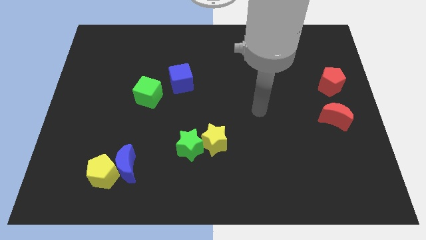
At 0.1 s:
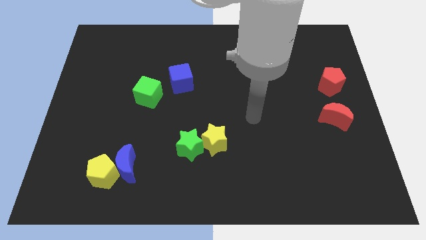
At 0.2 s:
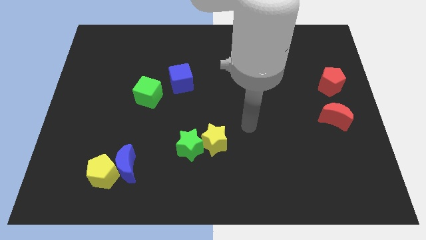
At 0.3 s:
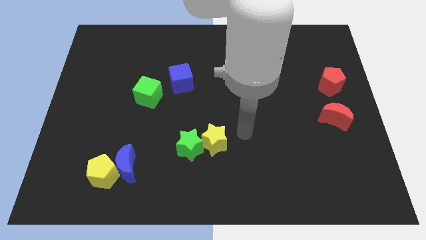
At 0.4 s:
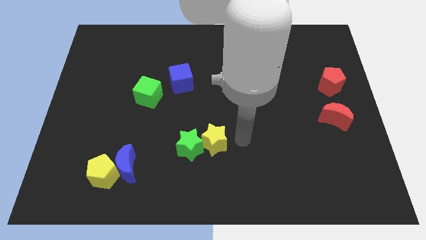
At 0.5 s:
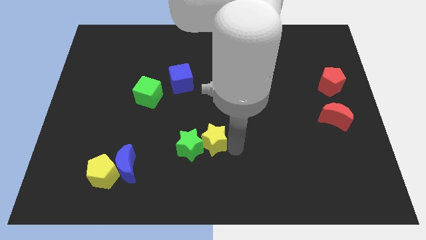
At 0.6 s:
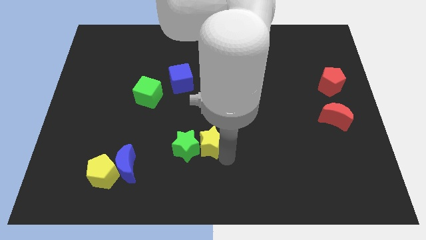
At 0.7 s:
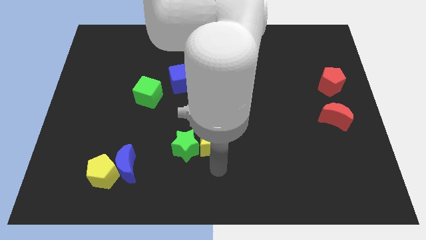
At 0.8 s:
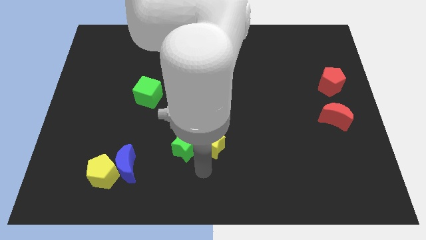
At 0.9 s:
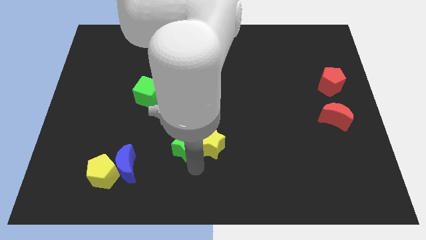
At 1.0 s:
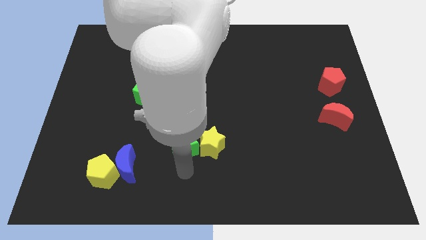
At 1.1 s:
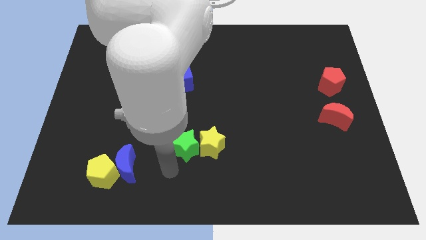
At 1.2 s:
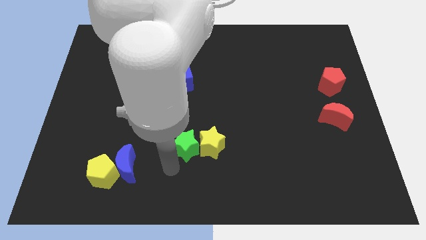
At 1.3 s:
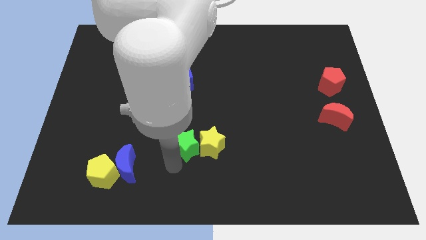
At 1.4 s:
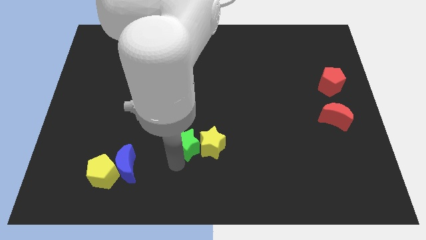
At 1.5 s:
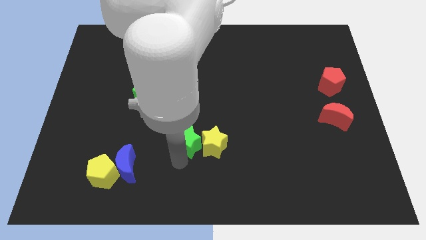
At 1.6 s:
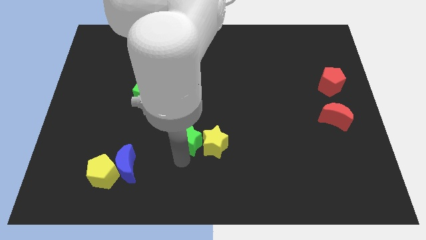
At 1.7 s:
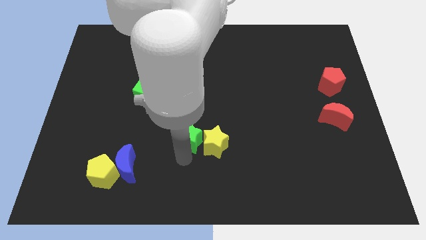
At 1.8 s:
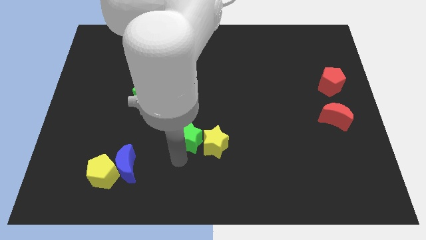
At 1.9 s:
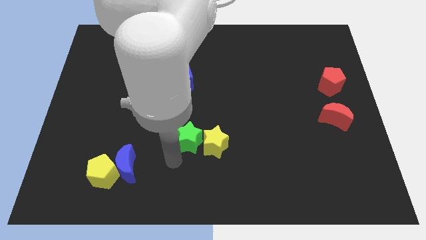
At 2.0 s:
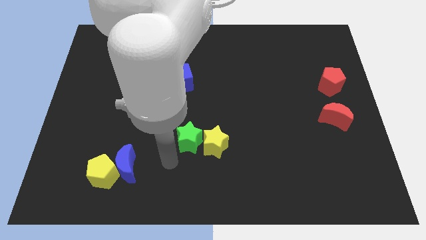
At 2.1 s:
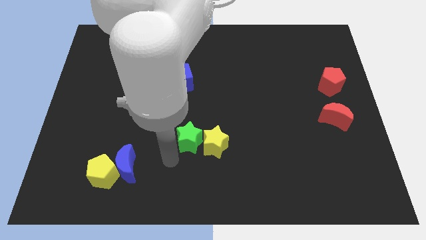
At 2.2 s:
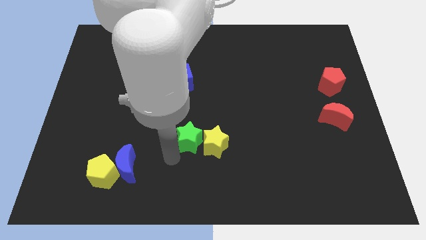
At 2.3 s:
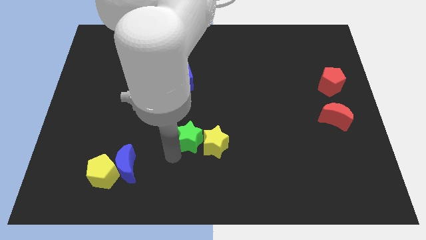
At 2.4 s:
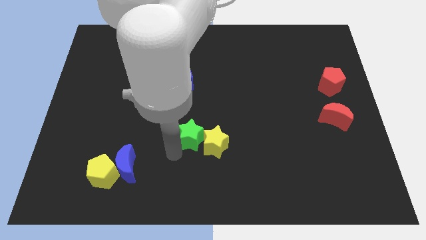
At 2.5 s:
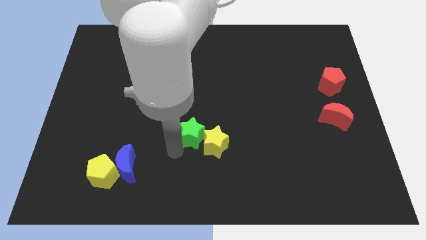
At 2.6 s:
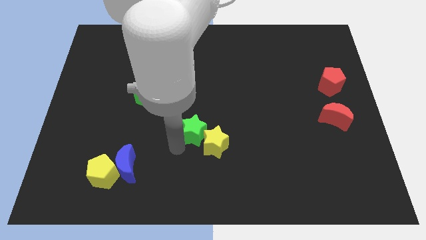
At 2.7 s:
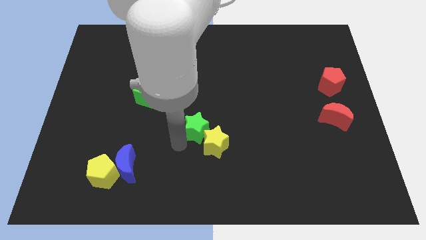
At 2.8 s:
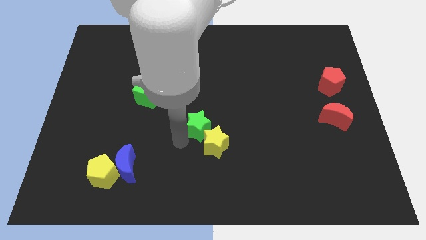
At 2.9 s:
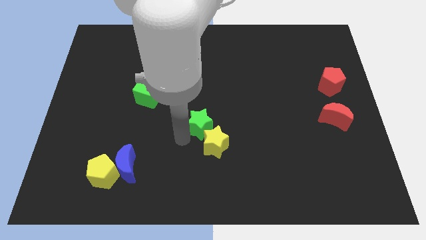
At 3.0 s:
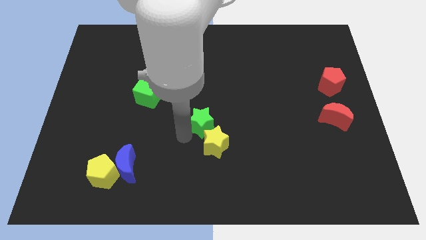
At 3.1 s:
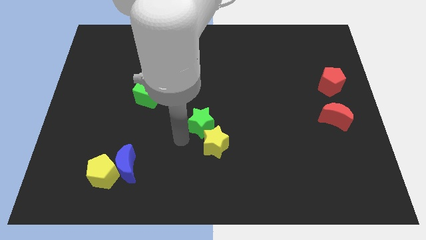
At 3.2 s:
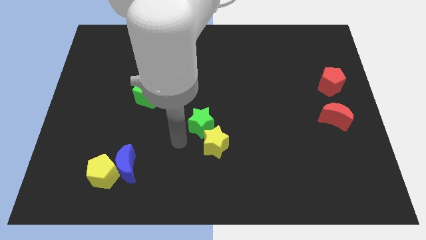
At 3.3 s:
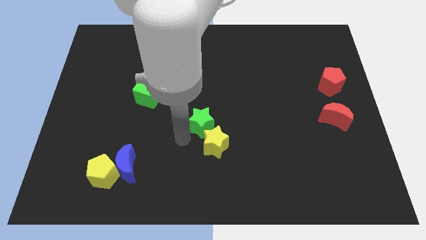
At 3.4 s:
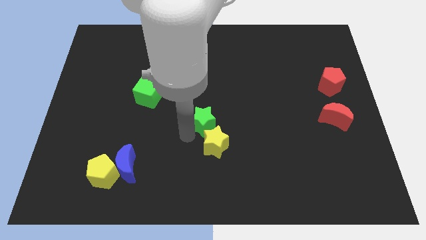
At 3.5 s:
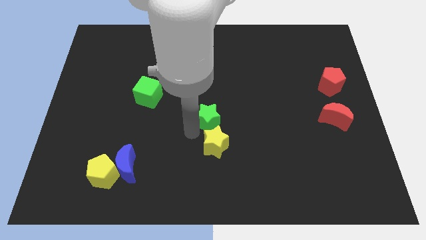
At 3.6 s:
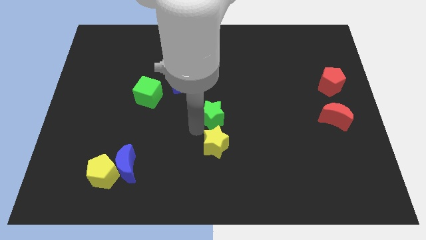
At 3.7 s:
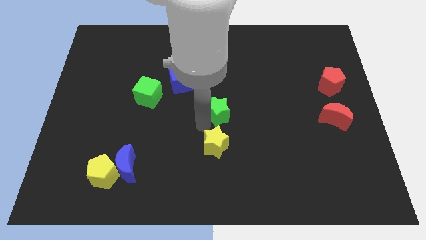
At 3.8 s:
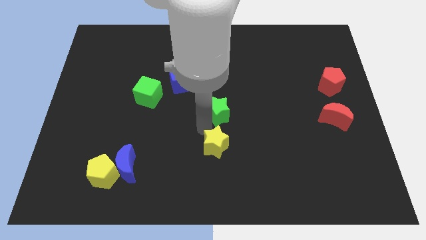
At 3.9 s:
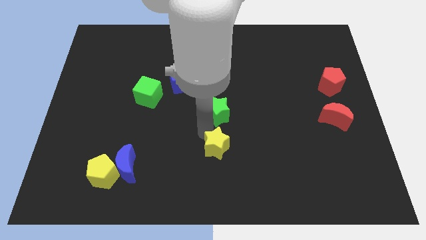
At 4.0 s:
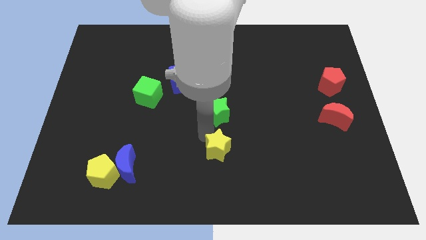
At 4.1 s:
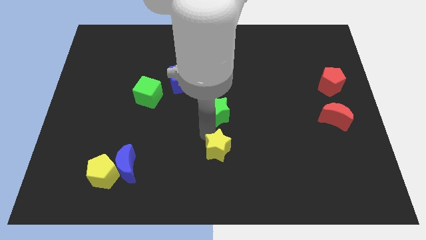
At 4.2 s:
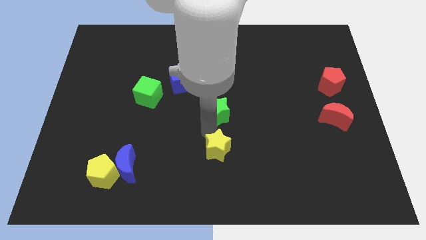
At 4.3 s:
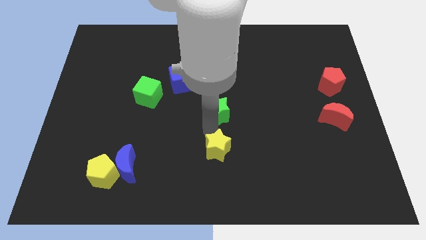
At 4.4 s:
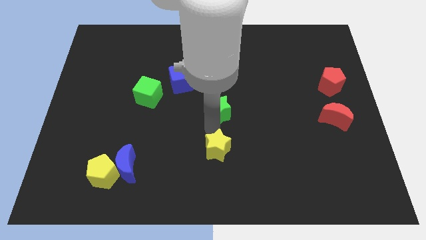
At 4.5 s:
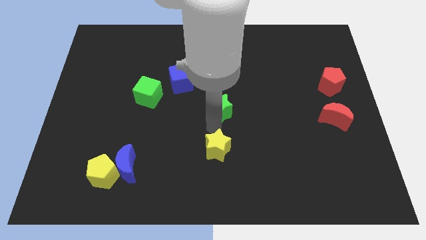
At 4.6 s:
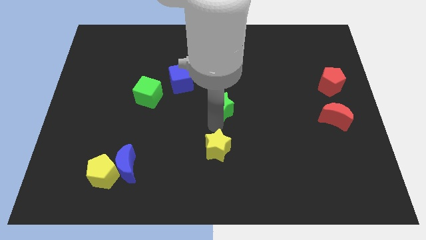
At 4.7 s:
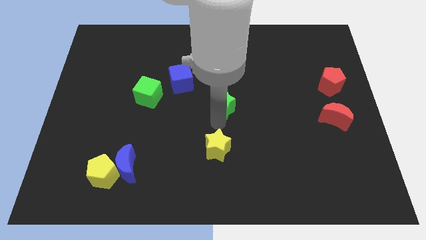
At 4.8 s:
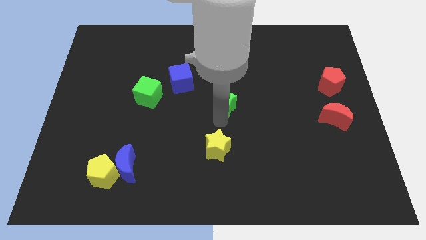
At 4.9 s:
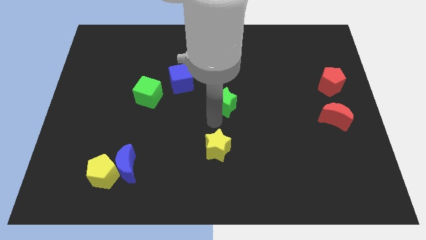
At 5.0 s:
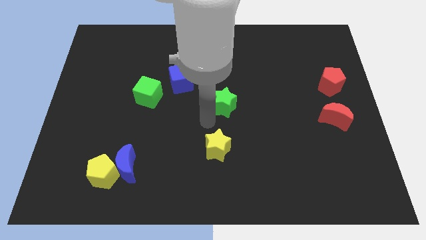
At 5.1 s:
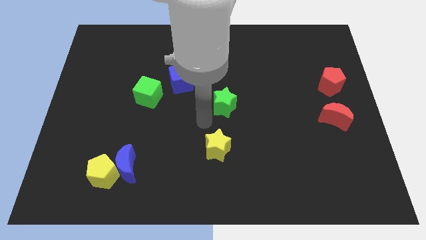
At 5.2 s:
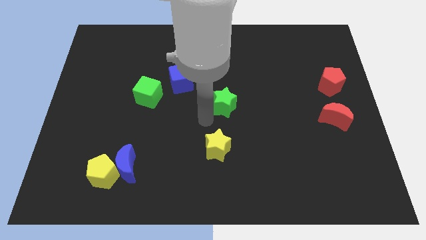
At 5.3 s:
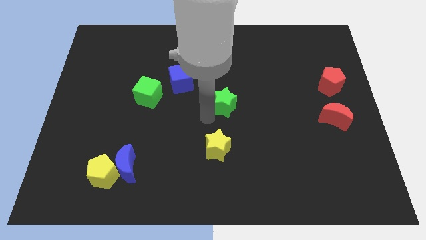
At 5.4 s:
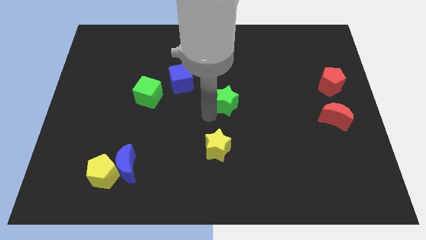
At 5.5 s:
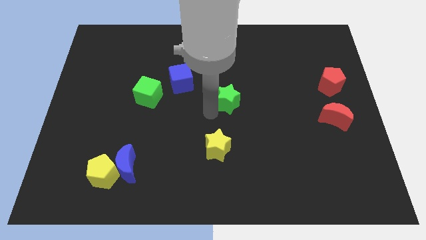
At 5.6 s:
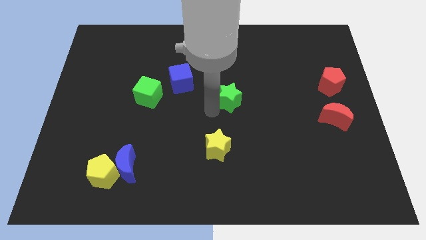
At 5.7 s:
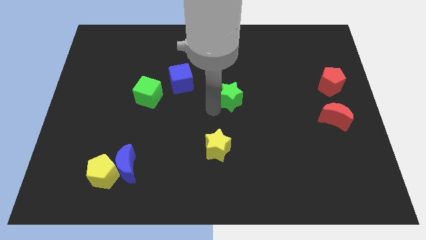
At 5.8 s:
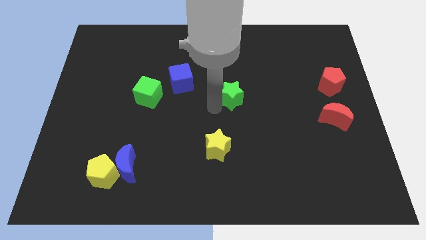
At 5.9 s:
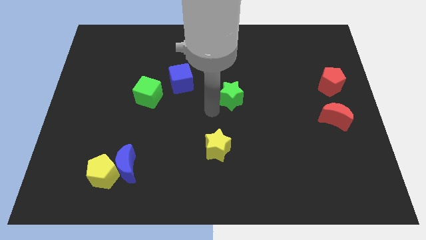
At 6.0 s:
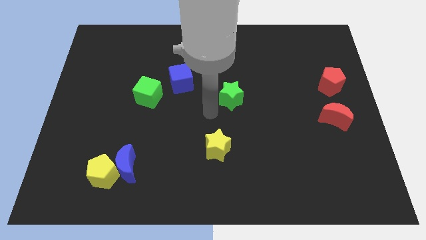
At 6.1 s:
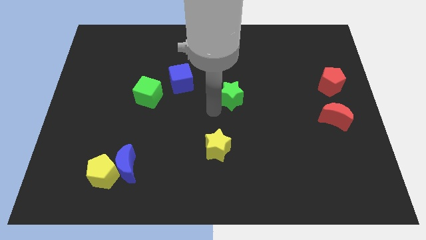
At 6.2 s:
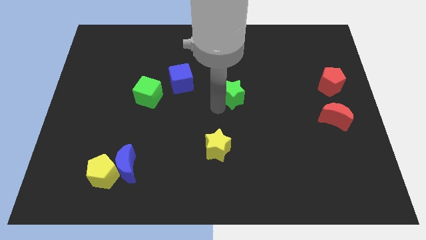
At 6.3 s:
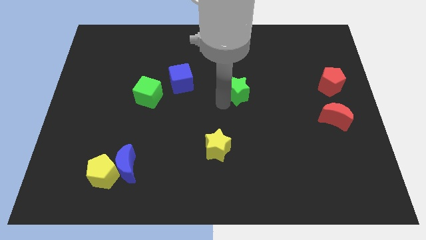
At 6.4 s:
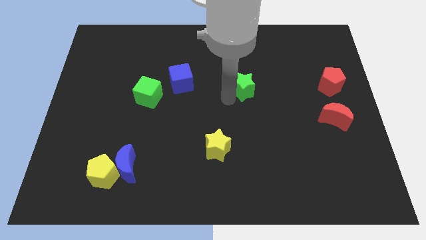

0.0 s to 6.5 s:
push the green star up and to the right

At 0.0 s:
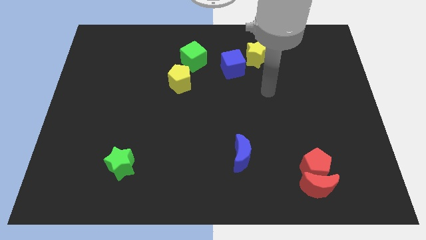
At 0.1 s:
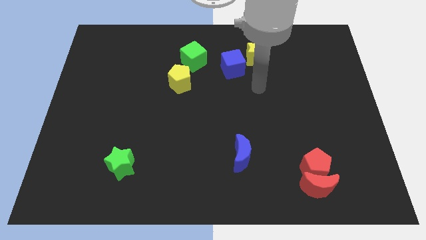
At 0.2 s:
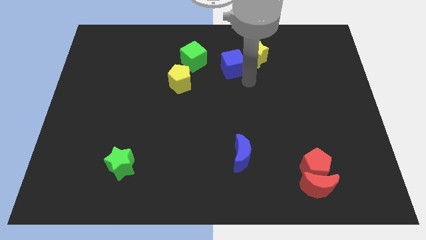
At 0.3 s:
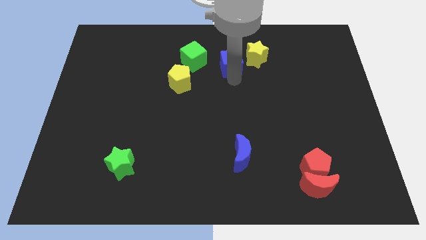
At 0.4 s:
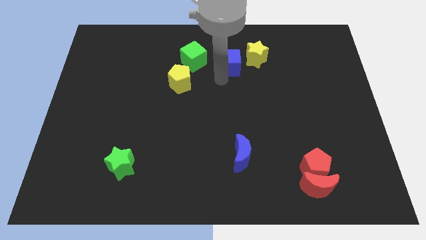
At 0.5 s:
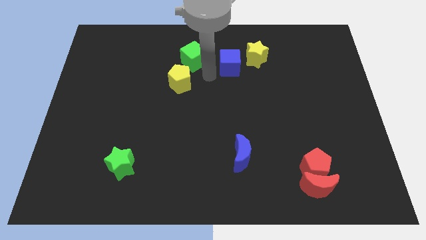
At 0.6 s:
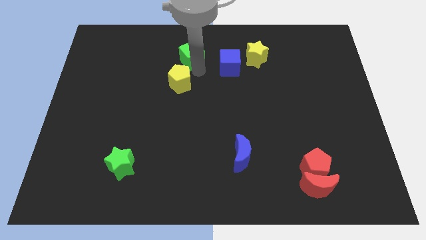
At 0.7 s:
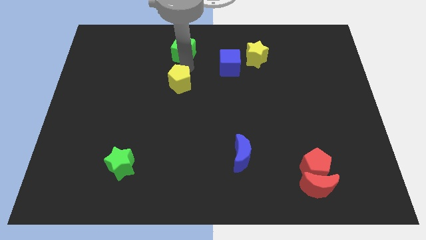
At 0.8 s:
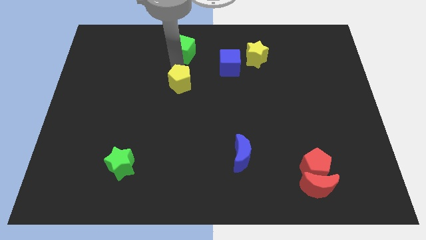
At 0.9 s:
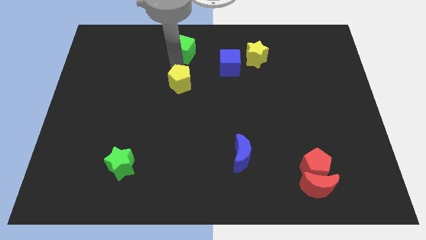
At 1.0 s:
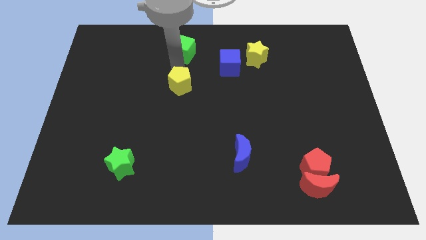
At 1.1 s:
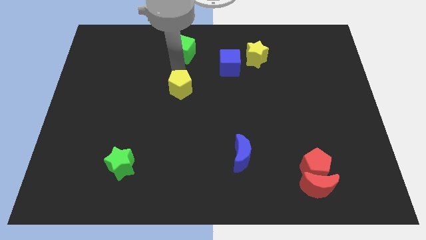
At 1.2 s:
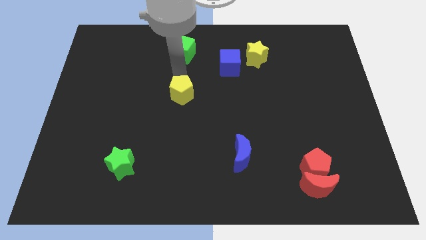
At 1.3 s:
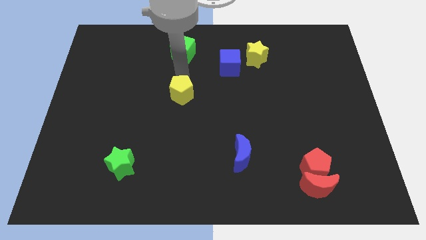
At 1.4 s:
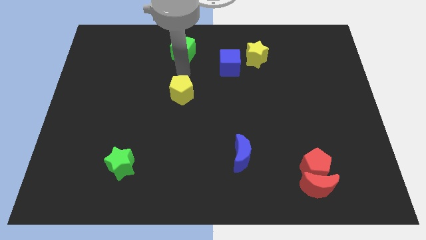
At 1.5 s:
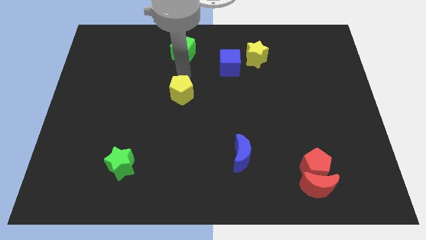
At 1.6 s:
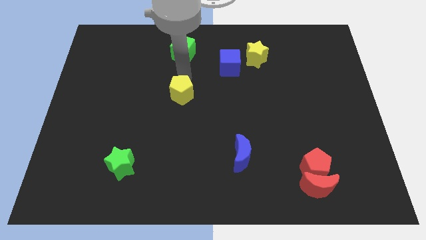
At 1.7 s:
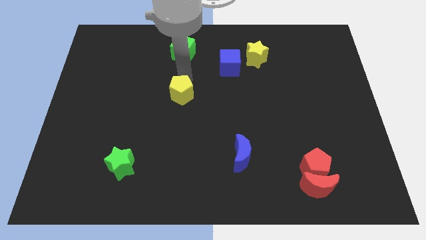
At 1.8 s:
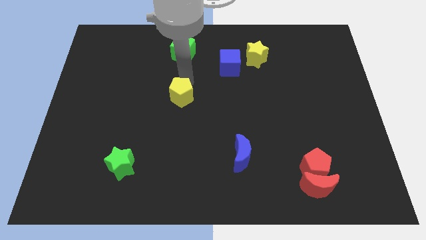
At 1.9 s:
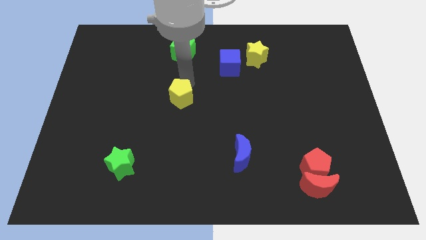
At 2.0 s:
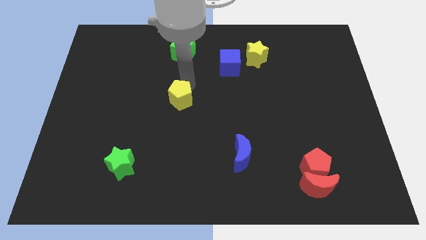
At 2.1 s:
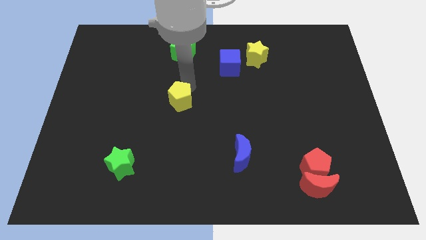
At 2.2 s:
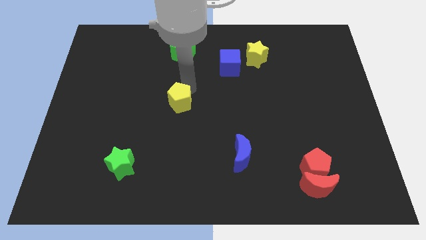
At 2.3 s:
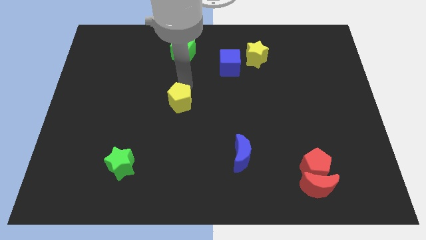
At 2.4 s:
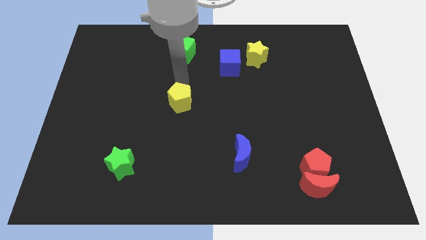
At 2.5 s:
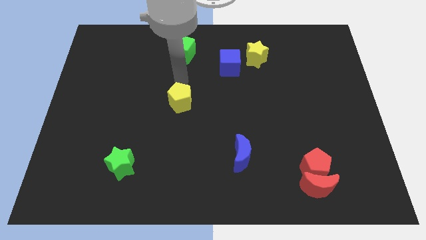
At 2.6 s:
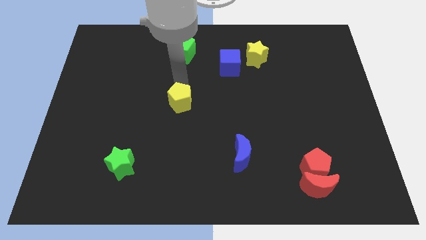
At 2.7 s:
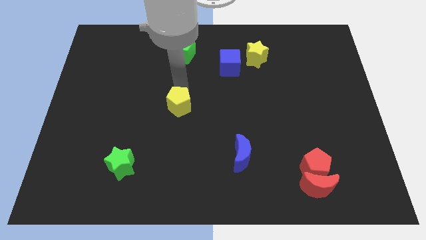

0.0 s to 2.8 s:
push the yellow pentagon a bit down
